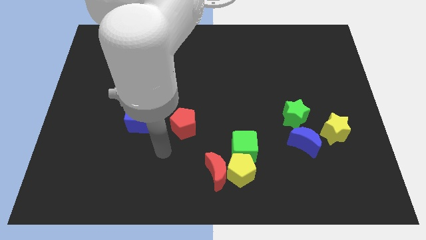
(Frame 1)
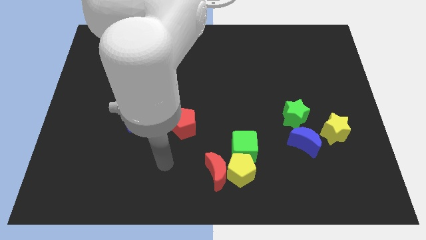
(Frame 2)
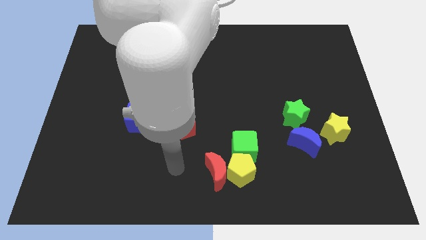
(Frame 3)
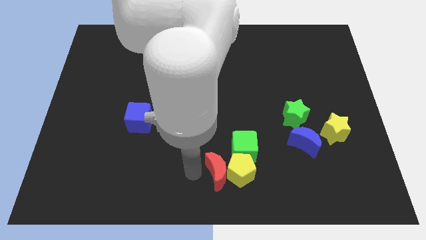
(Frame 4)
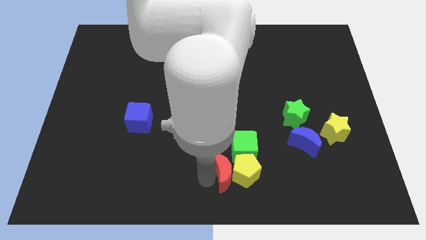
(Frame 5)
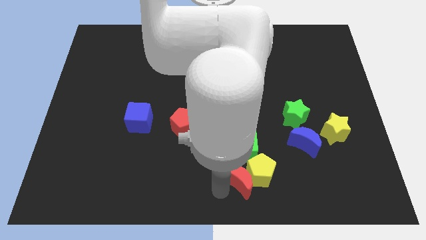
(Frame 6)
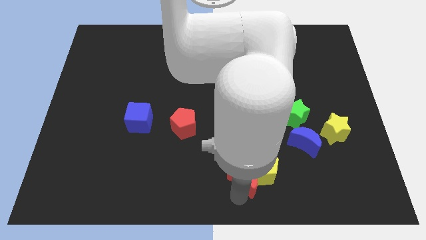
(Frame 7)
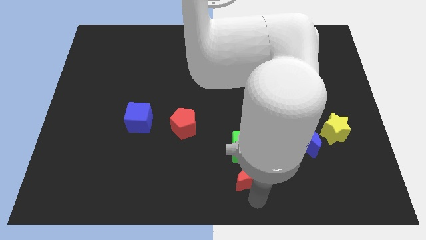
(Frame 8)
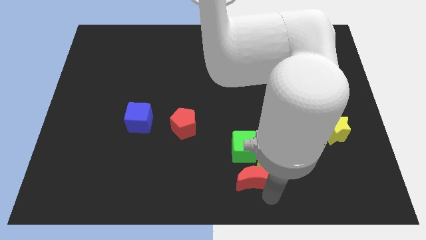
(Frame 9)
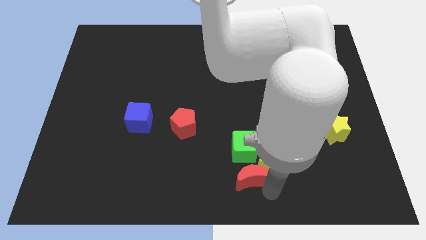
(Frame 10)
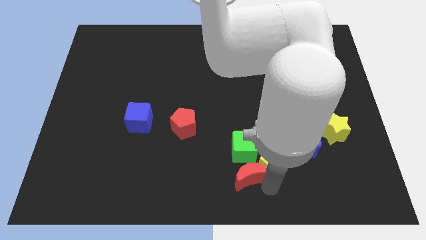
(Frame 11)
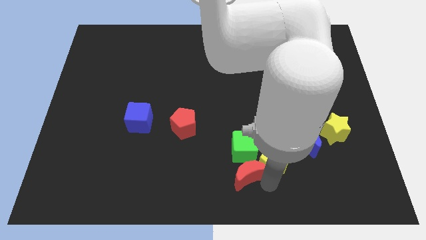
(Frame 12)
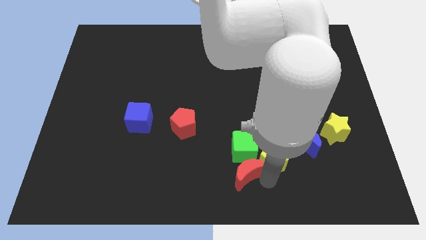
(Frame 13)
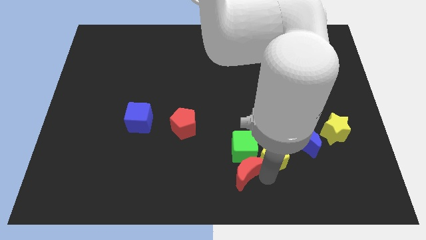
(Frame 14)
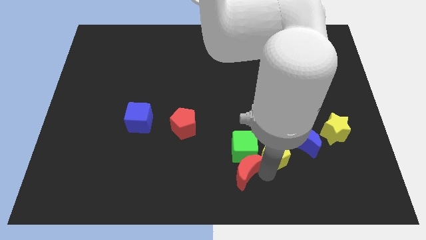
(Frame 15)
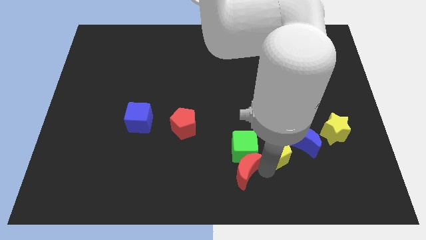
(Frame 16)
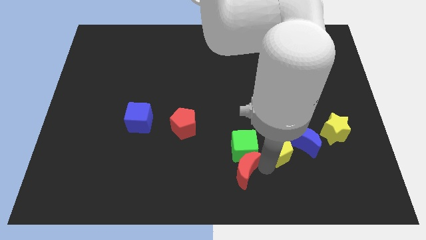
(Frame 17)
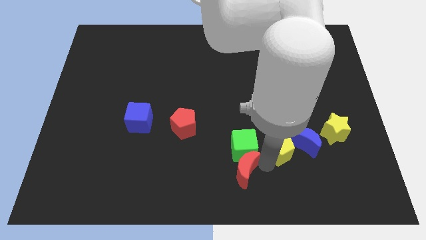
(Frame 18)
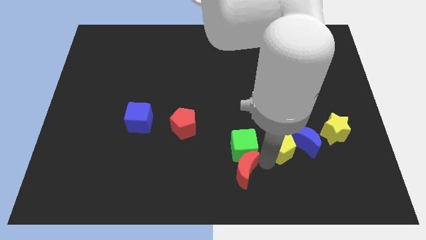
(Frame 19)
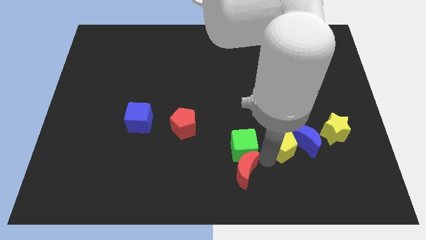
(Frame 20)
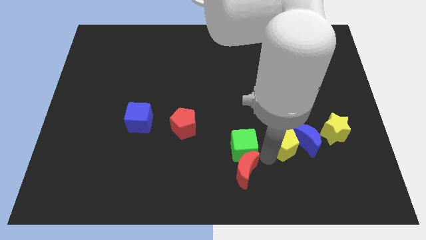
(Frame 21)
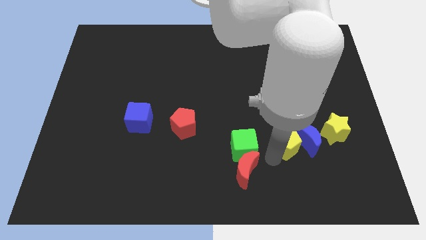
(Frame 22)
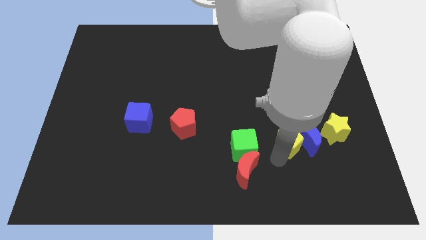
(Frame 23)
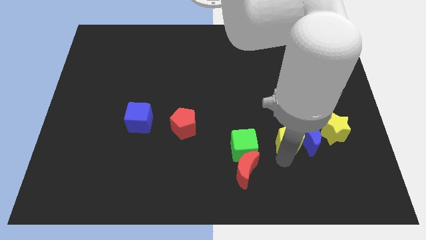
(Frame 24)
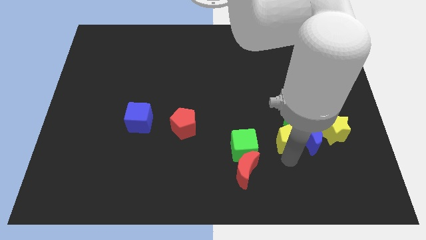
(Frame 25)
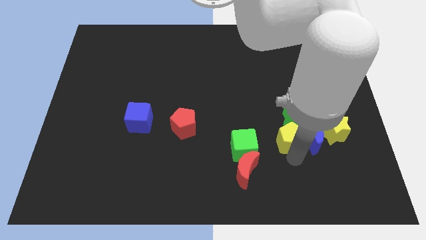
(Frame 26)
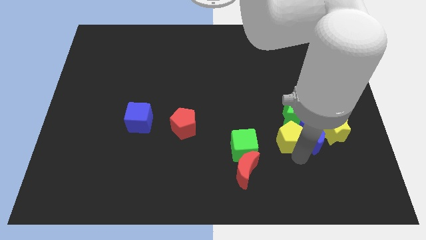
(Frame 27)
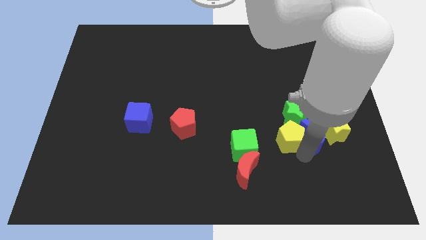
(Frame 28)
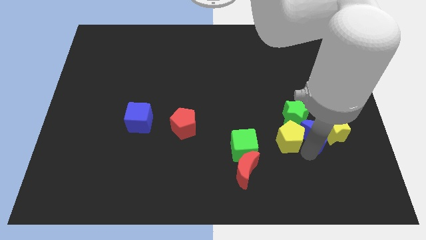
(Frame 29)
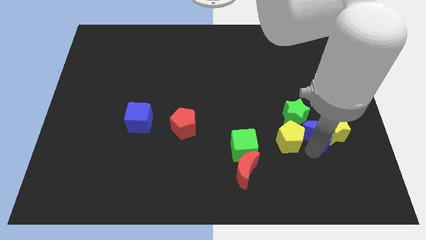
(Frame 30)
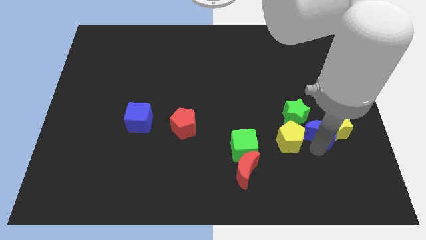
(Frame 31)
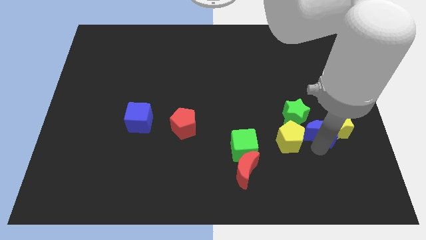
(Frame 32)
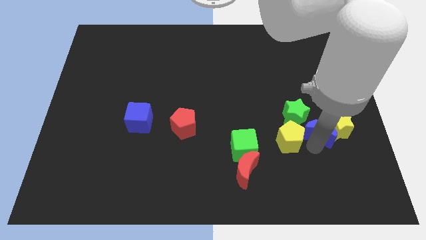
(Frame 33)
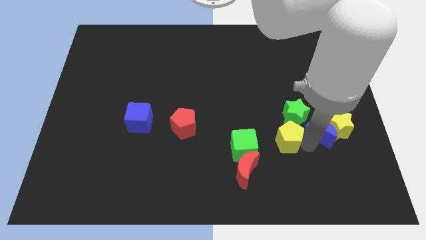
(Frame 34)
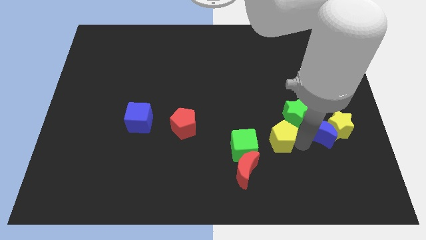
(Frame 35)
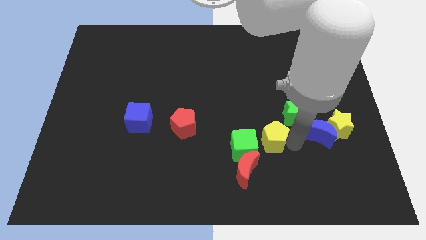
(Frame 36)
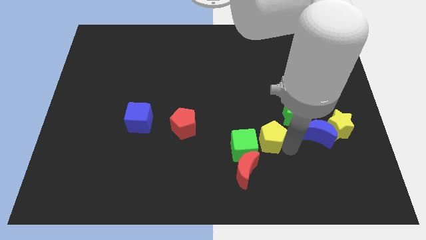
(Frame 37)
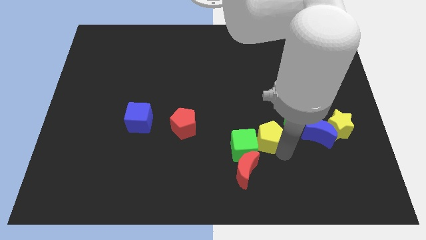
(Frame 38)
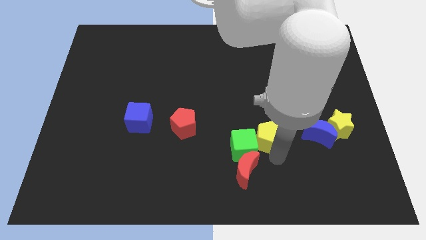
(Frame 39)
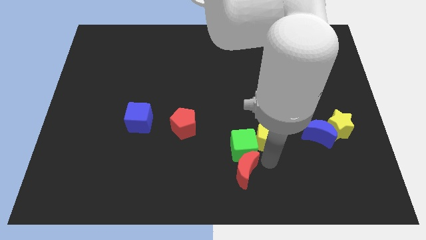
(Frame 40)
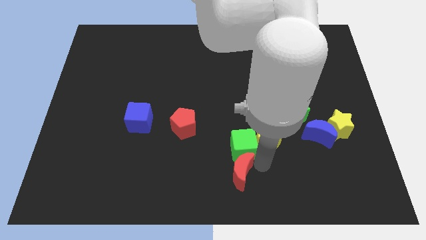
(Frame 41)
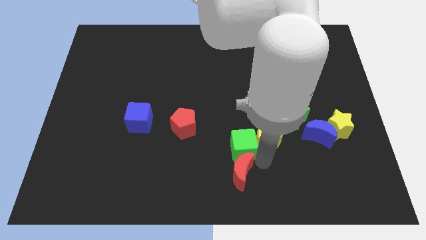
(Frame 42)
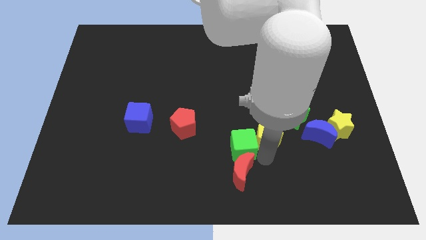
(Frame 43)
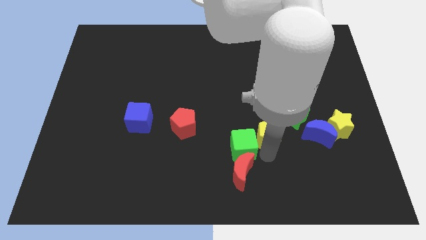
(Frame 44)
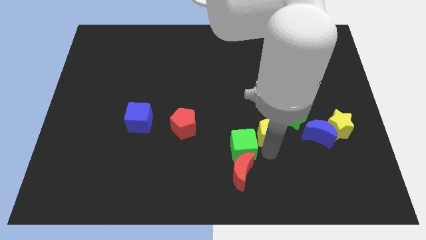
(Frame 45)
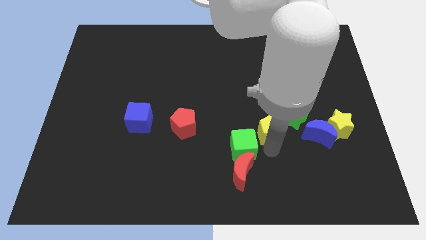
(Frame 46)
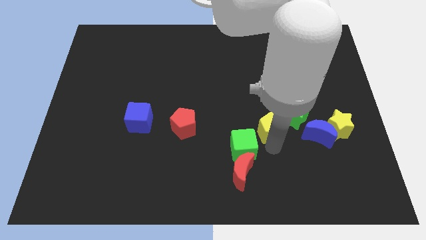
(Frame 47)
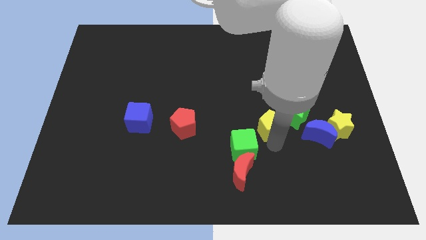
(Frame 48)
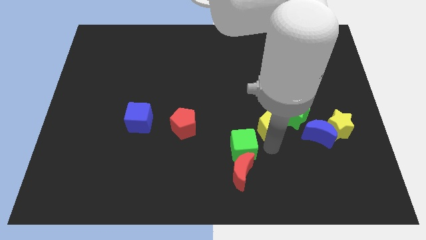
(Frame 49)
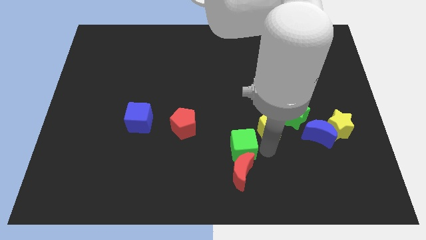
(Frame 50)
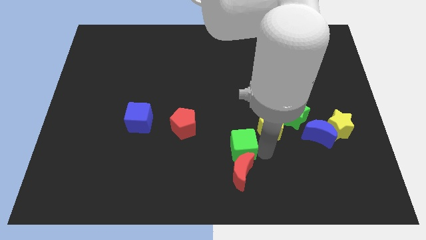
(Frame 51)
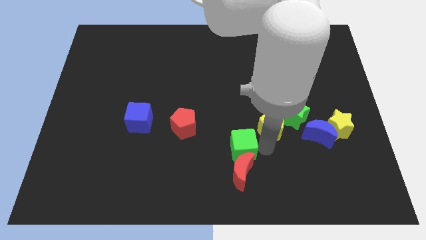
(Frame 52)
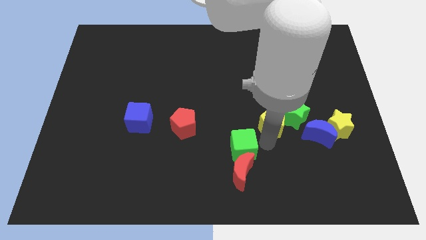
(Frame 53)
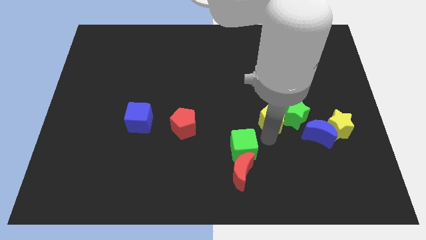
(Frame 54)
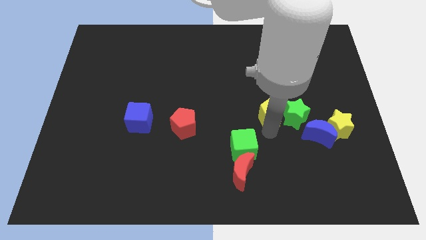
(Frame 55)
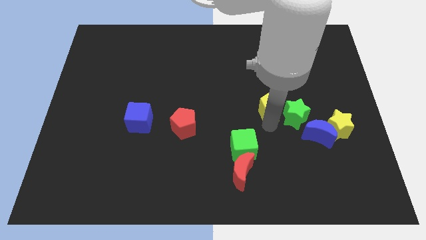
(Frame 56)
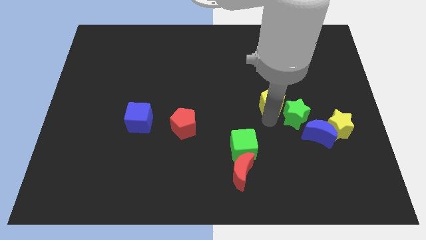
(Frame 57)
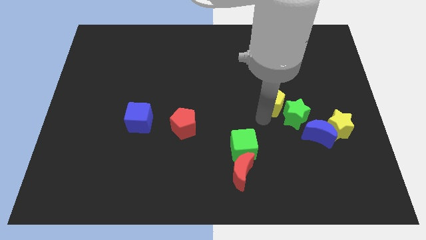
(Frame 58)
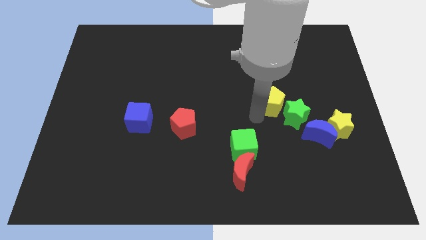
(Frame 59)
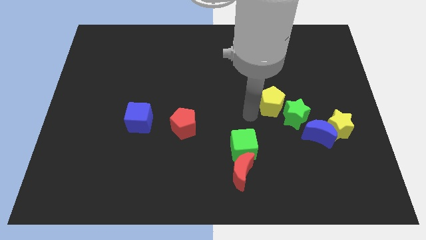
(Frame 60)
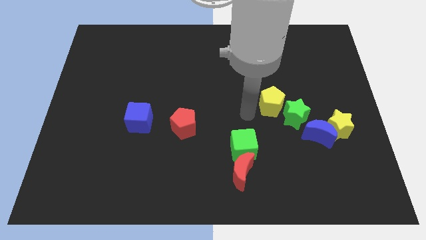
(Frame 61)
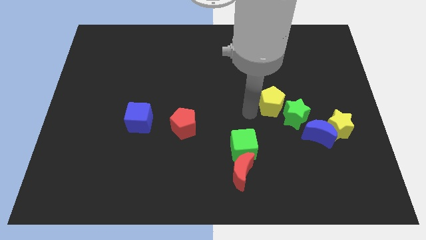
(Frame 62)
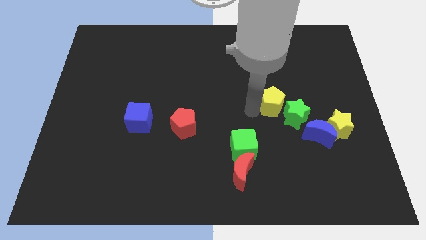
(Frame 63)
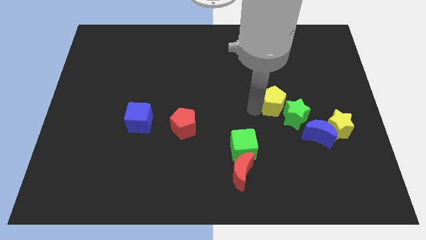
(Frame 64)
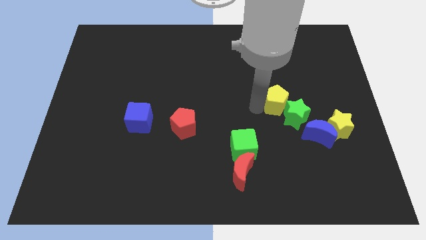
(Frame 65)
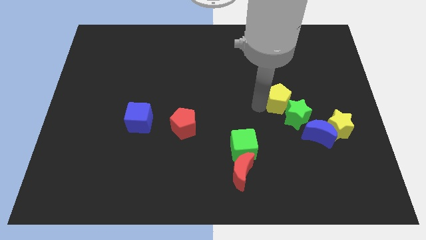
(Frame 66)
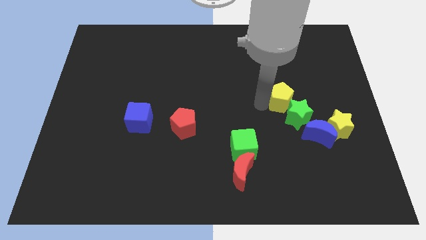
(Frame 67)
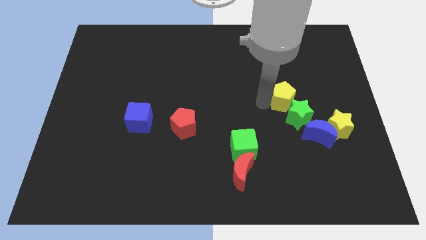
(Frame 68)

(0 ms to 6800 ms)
move the yellow pentagon diagonally upwards and right

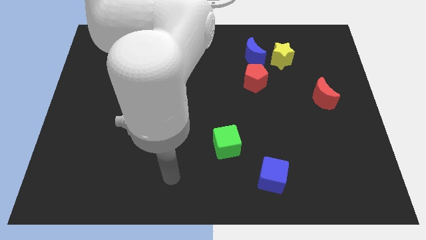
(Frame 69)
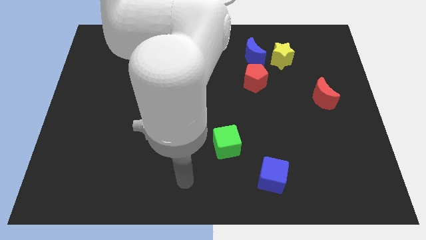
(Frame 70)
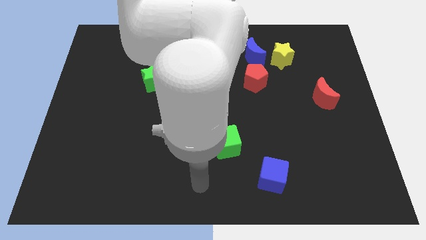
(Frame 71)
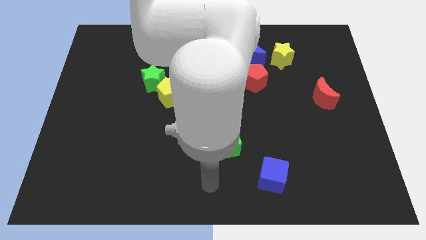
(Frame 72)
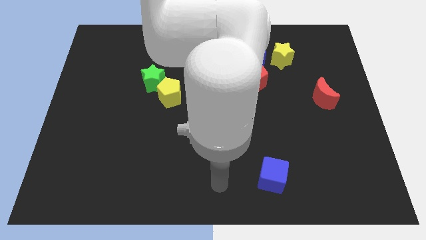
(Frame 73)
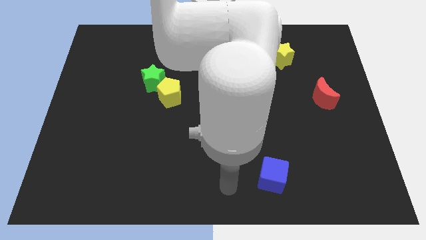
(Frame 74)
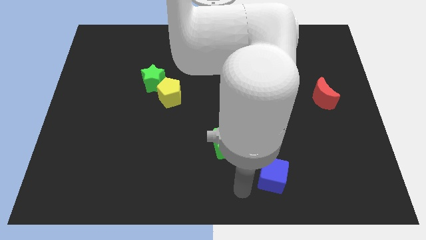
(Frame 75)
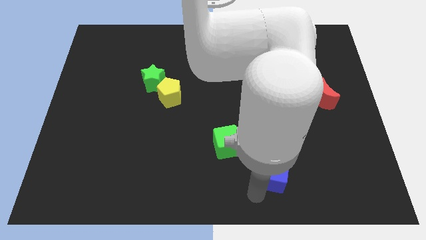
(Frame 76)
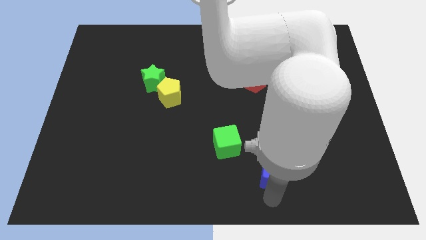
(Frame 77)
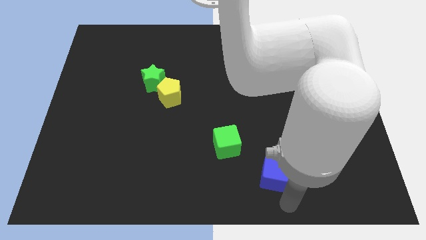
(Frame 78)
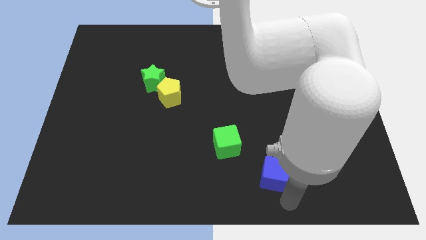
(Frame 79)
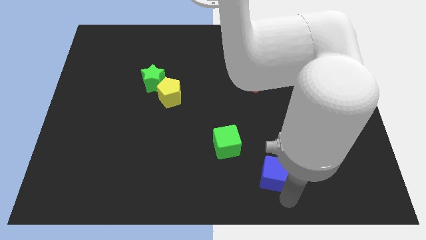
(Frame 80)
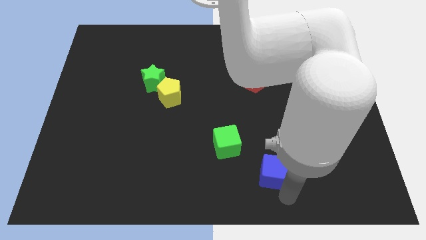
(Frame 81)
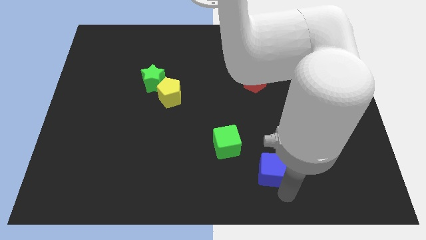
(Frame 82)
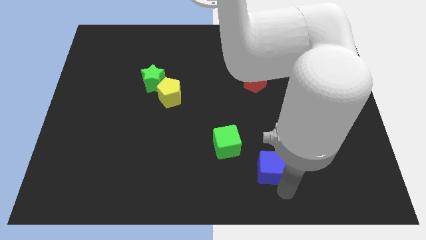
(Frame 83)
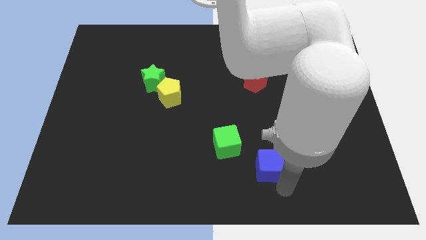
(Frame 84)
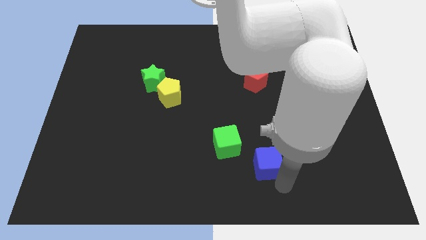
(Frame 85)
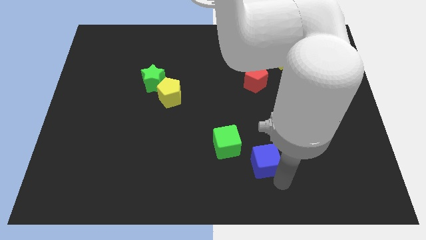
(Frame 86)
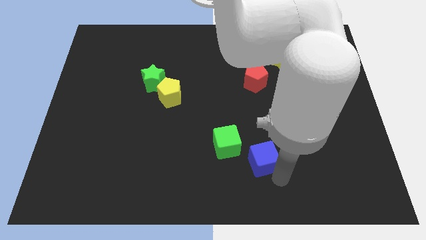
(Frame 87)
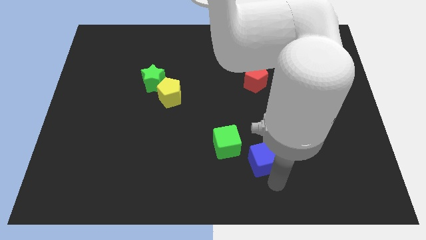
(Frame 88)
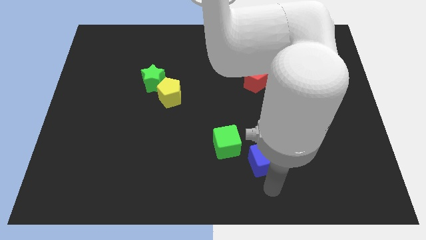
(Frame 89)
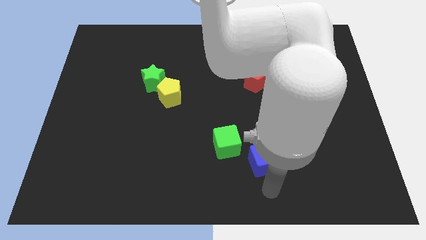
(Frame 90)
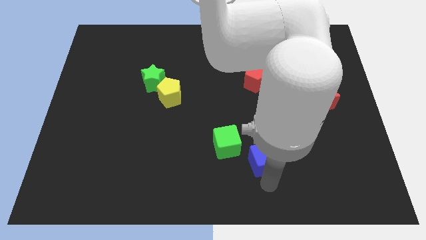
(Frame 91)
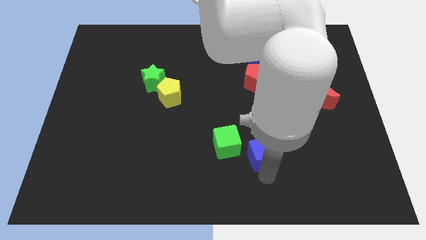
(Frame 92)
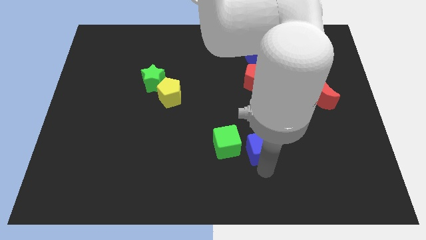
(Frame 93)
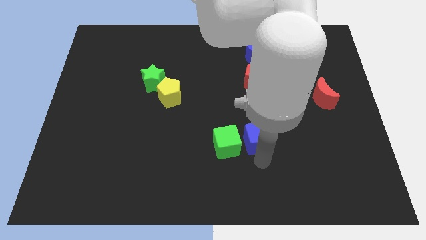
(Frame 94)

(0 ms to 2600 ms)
slide the blue cube upwards a little
